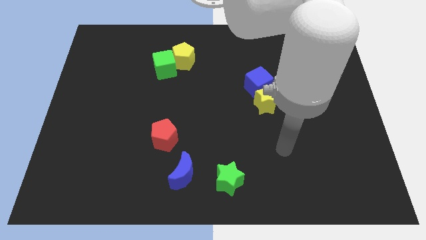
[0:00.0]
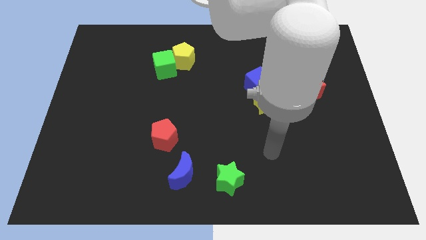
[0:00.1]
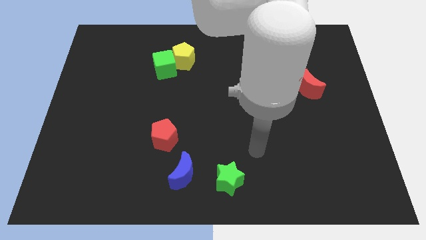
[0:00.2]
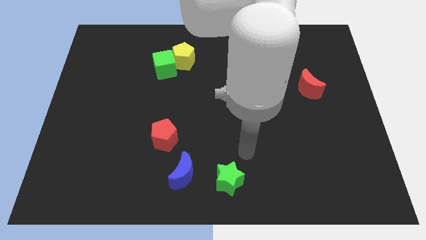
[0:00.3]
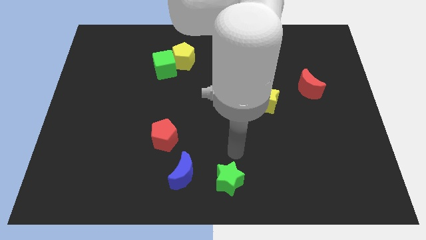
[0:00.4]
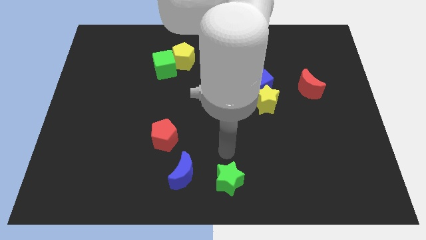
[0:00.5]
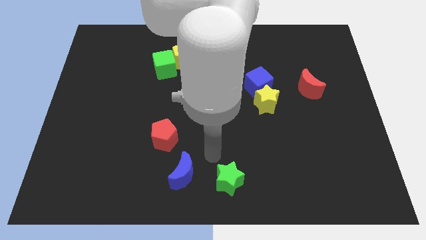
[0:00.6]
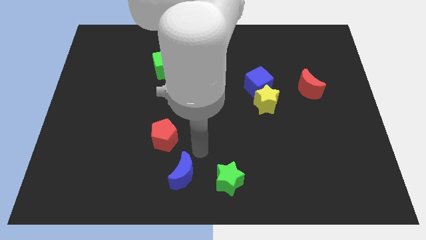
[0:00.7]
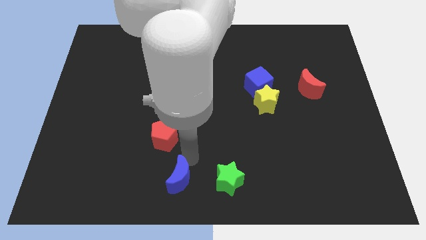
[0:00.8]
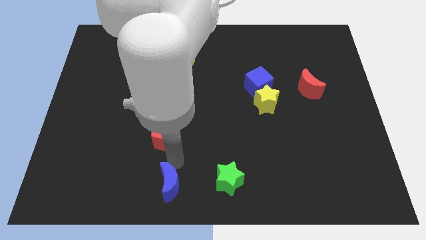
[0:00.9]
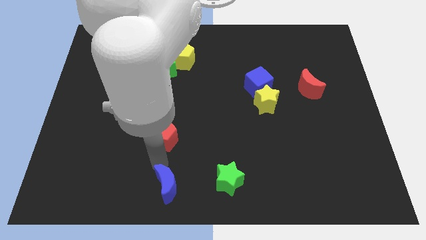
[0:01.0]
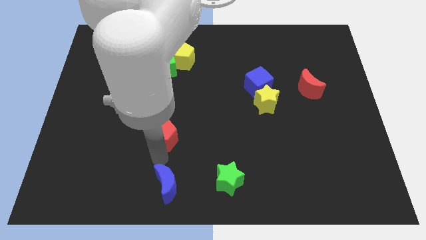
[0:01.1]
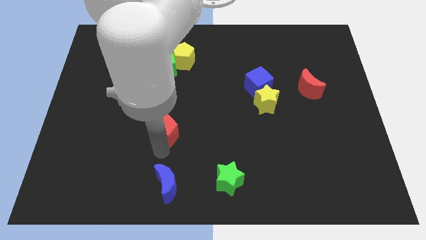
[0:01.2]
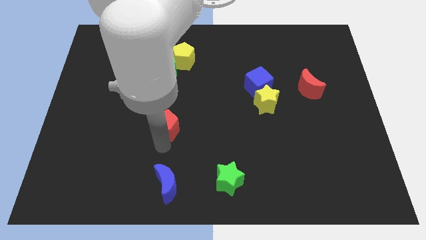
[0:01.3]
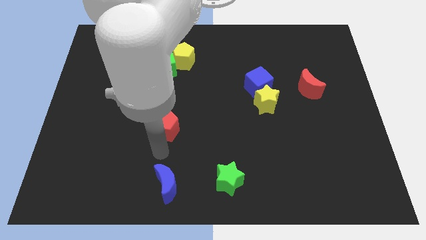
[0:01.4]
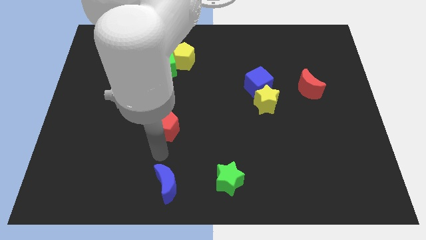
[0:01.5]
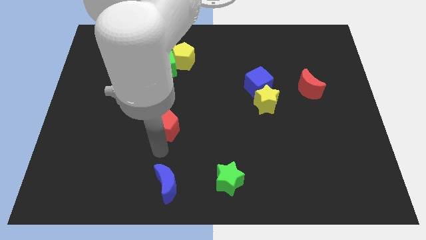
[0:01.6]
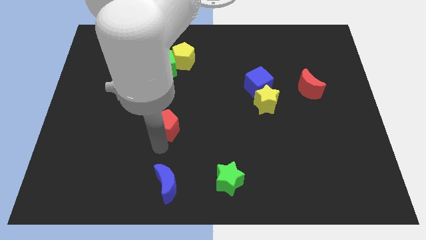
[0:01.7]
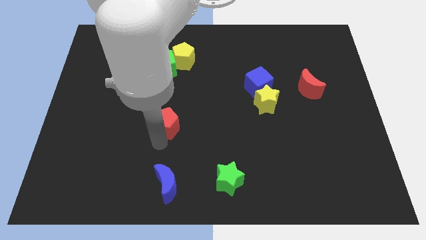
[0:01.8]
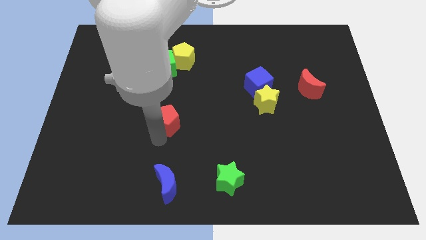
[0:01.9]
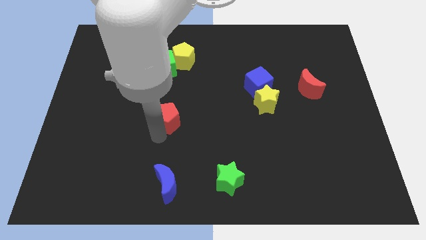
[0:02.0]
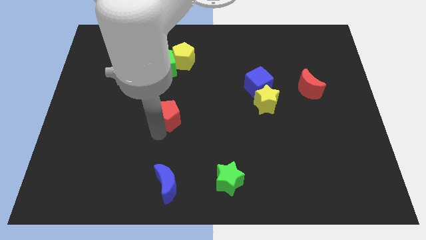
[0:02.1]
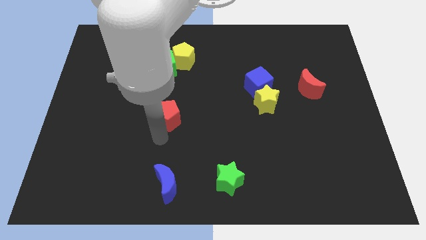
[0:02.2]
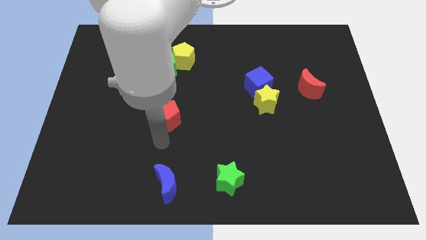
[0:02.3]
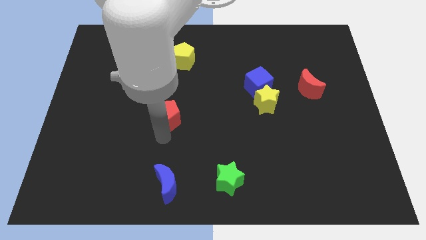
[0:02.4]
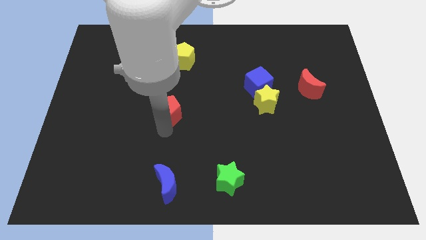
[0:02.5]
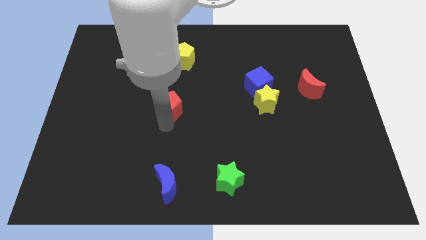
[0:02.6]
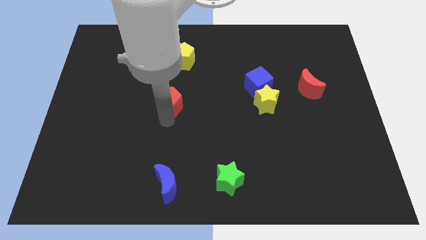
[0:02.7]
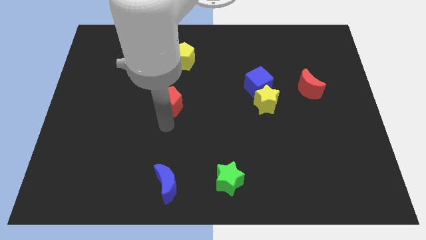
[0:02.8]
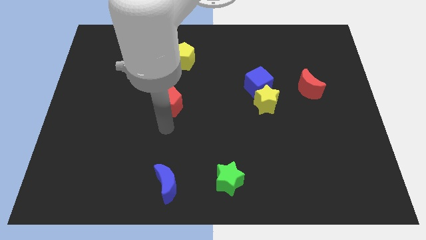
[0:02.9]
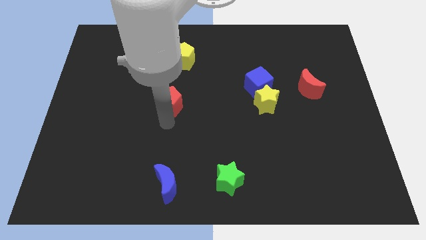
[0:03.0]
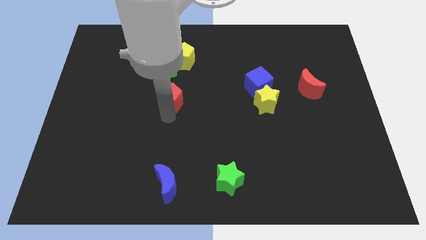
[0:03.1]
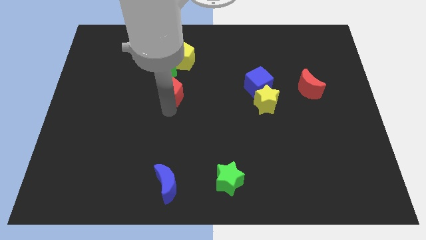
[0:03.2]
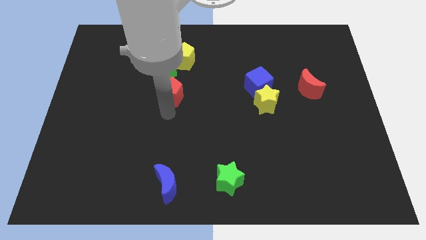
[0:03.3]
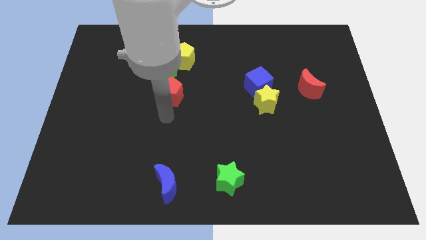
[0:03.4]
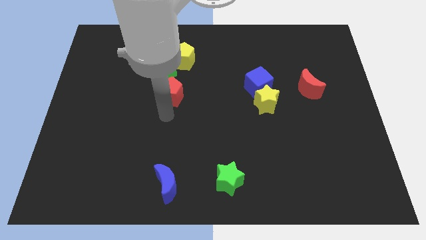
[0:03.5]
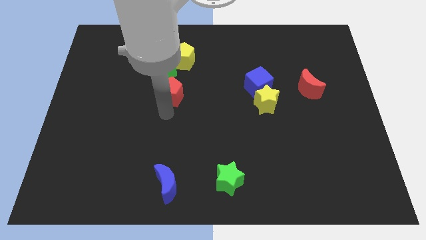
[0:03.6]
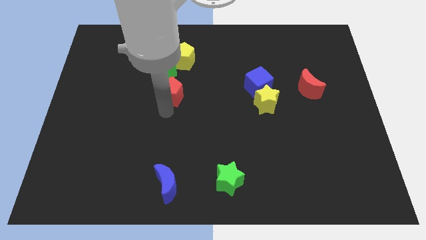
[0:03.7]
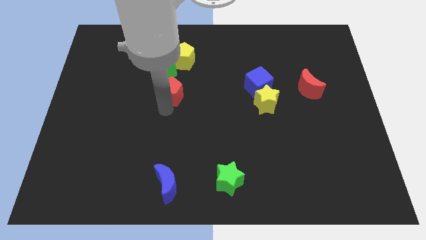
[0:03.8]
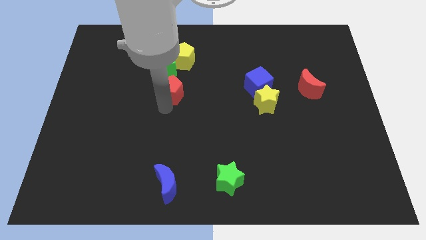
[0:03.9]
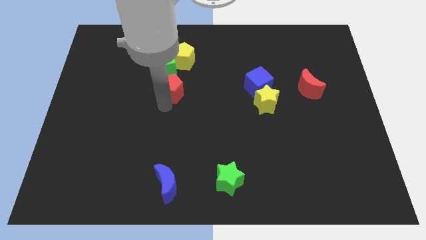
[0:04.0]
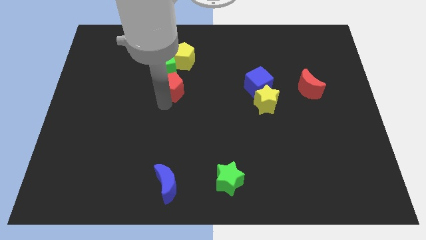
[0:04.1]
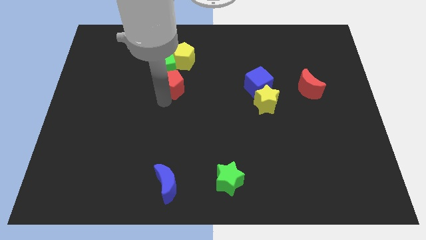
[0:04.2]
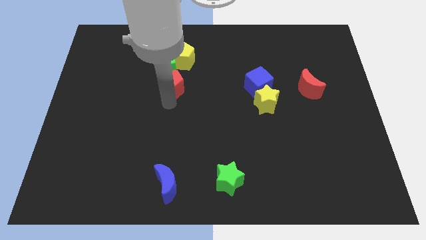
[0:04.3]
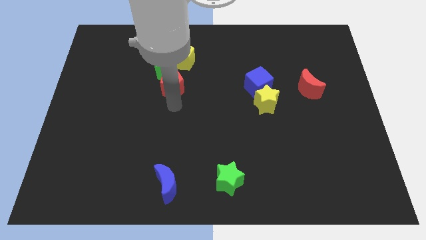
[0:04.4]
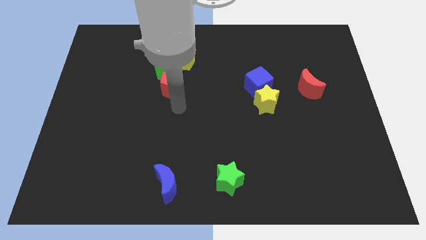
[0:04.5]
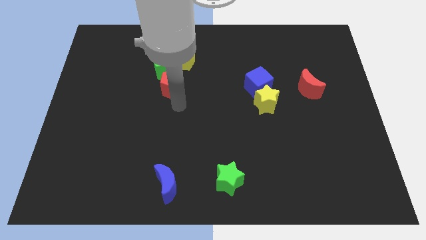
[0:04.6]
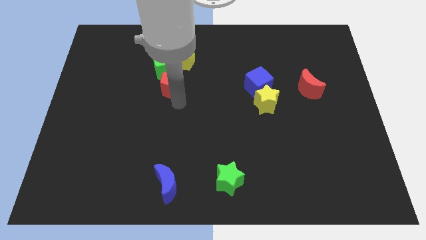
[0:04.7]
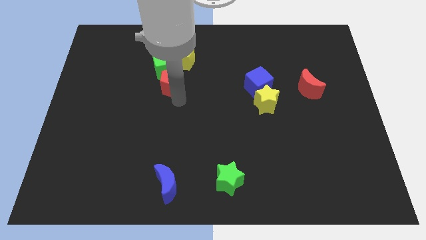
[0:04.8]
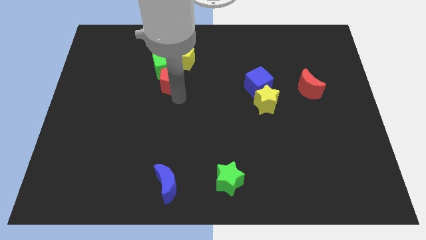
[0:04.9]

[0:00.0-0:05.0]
push the red pentagon next to the green cube

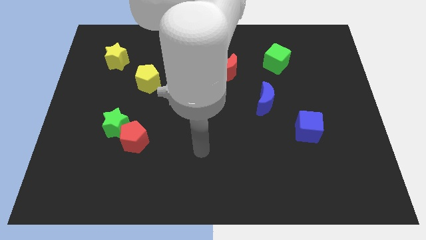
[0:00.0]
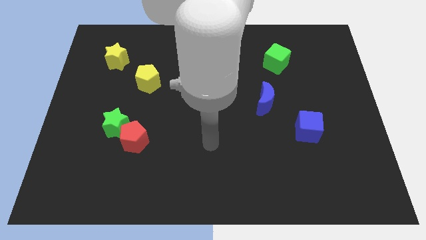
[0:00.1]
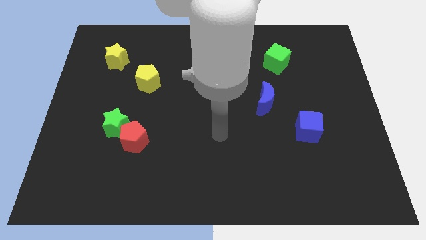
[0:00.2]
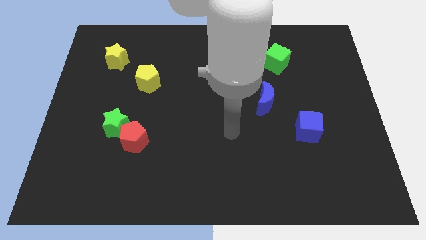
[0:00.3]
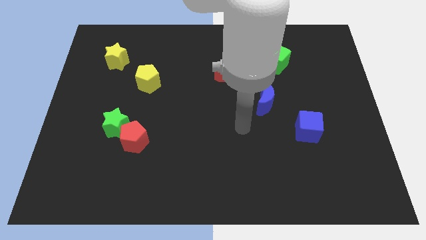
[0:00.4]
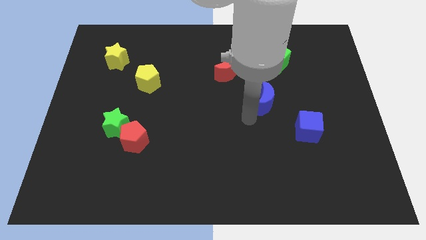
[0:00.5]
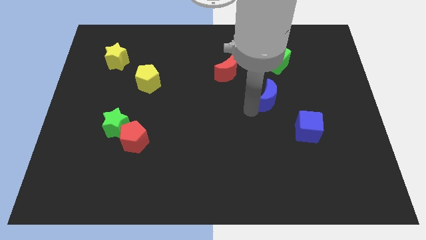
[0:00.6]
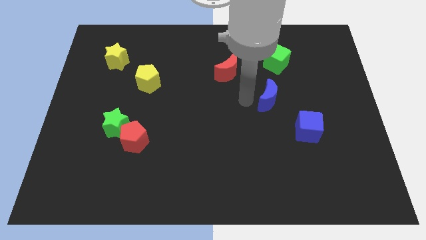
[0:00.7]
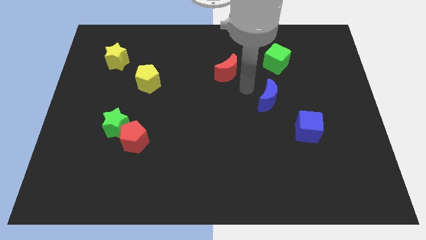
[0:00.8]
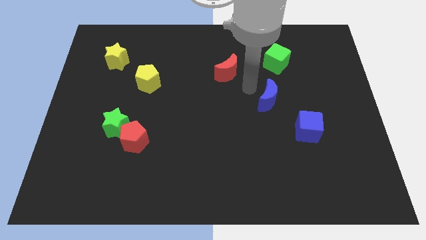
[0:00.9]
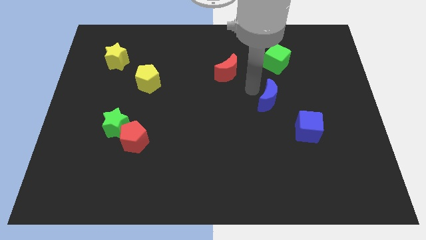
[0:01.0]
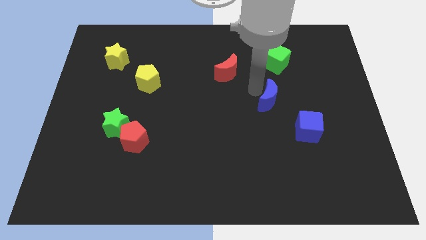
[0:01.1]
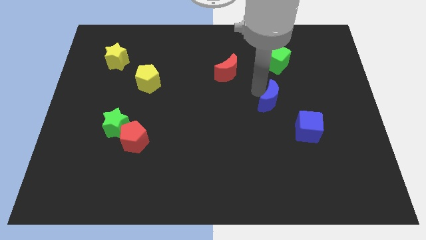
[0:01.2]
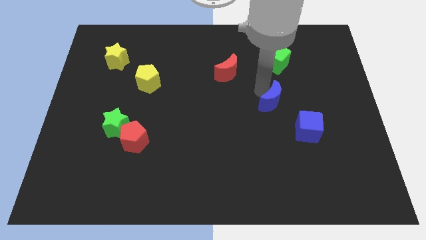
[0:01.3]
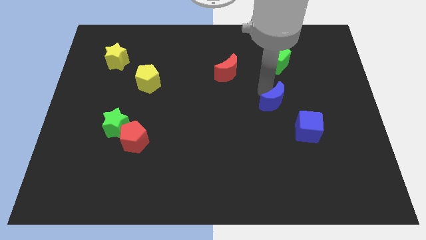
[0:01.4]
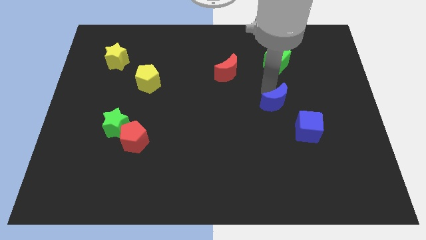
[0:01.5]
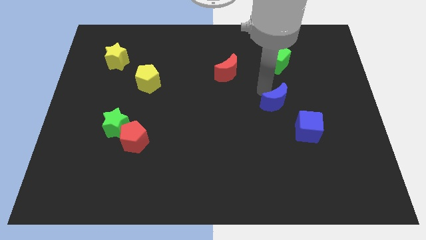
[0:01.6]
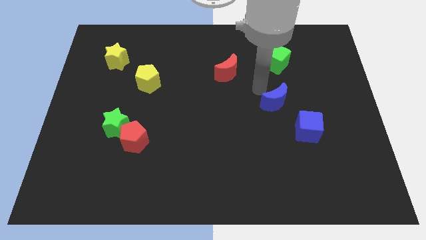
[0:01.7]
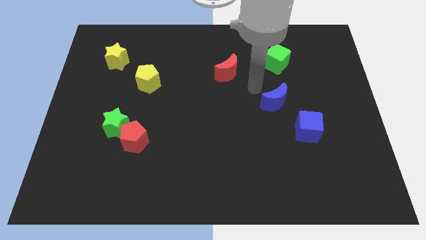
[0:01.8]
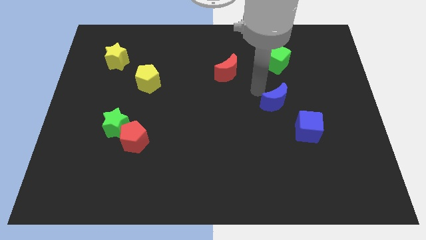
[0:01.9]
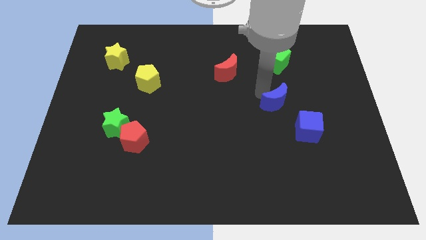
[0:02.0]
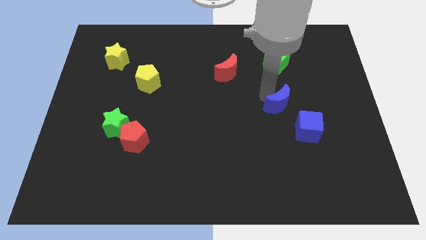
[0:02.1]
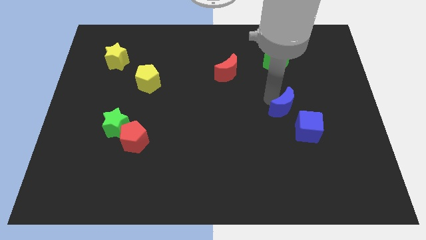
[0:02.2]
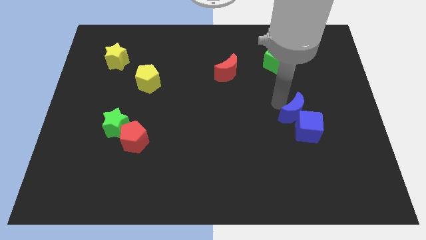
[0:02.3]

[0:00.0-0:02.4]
push the blue moon towards the blue cube
